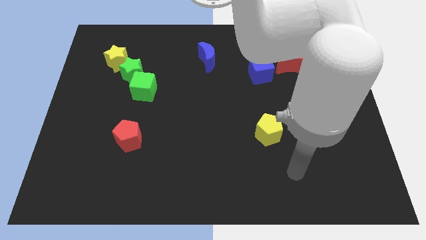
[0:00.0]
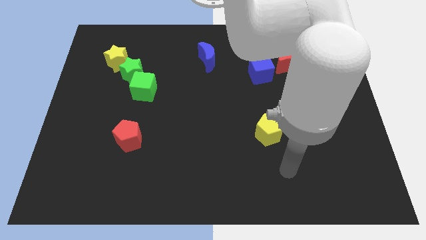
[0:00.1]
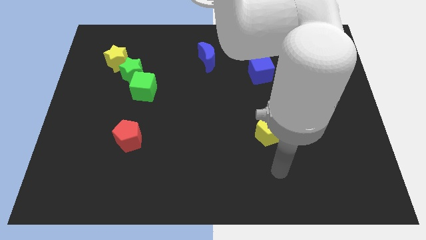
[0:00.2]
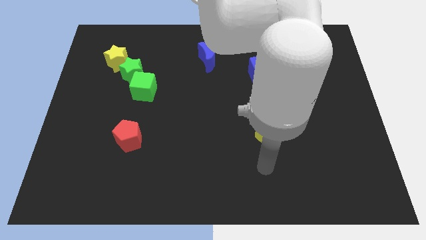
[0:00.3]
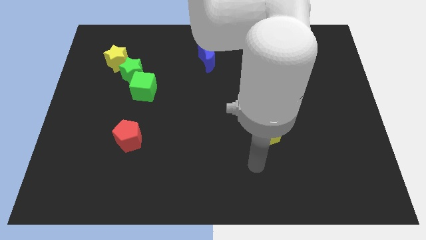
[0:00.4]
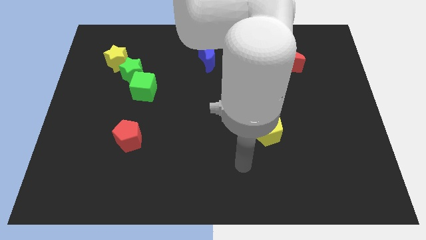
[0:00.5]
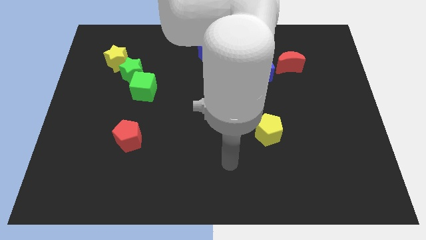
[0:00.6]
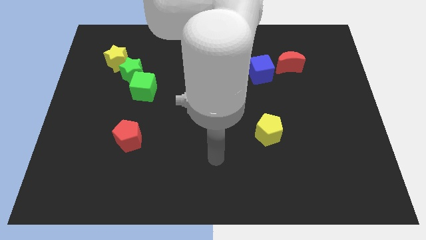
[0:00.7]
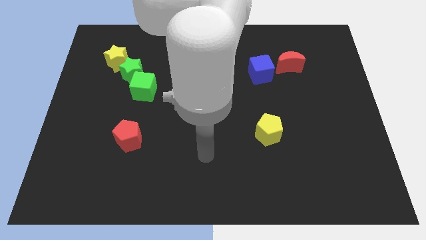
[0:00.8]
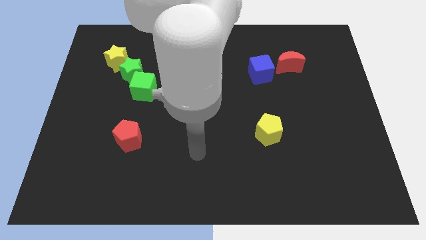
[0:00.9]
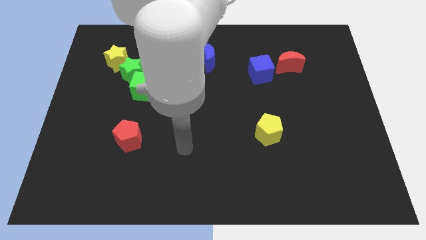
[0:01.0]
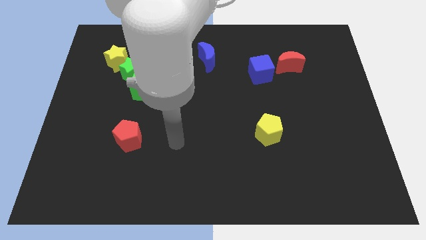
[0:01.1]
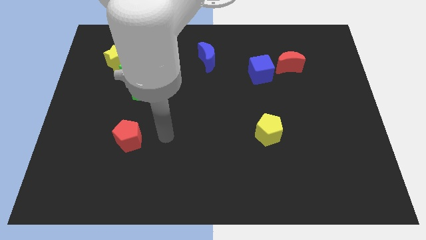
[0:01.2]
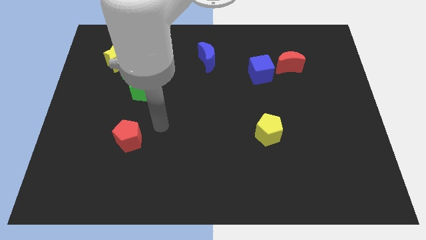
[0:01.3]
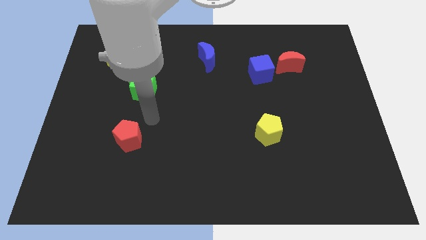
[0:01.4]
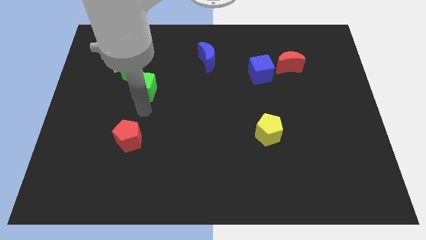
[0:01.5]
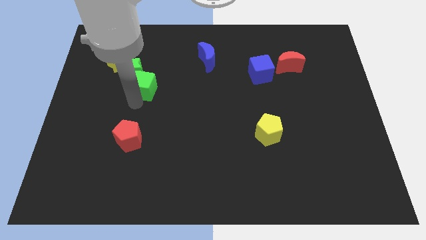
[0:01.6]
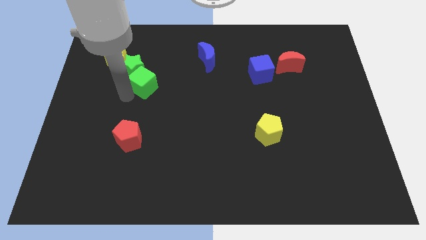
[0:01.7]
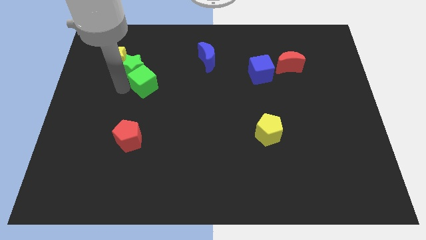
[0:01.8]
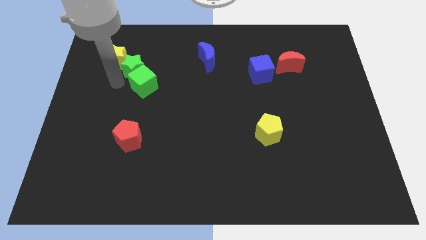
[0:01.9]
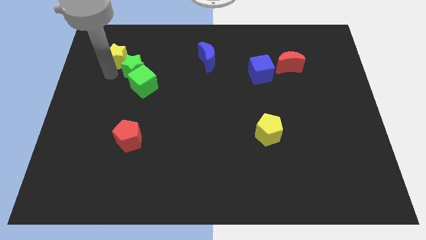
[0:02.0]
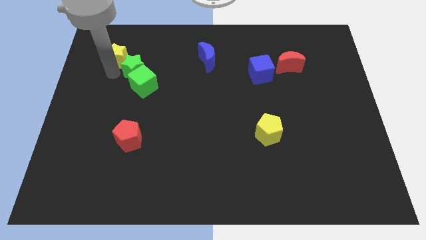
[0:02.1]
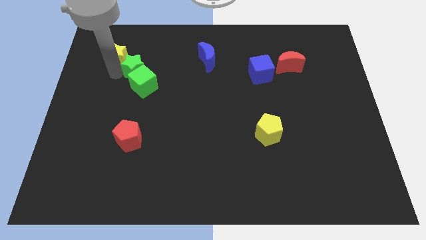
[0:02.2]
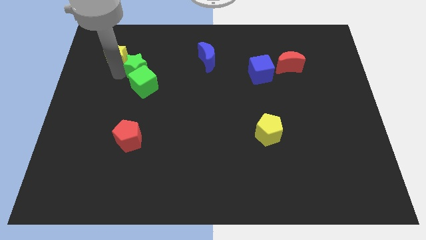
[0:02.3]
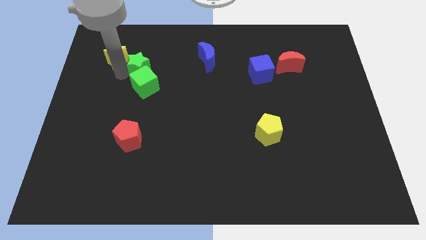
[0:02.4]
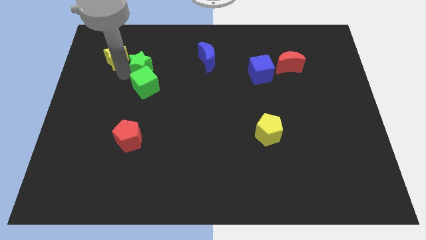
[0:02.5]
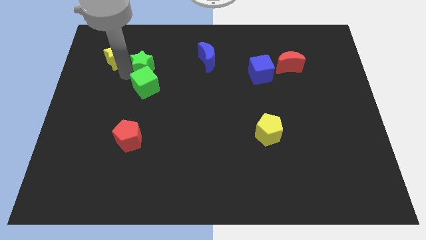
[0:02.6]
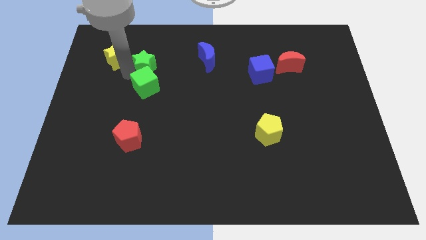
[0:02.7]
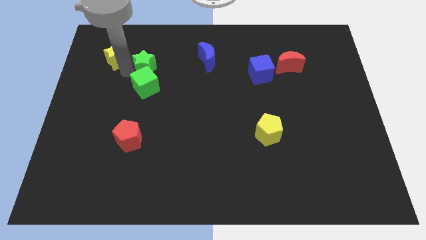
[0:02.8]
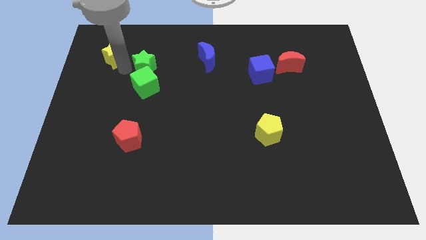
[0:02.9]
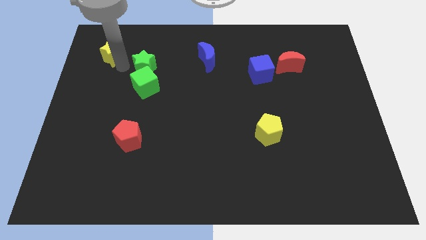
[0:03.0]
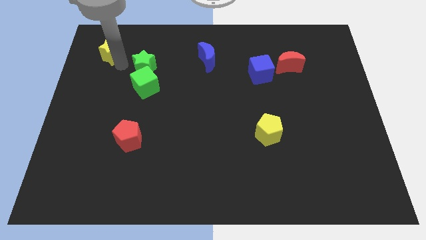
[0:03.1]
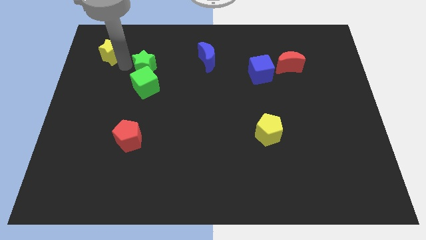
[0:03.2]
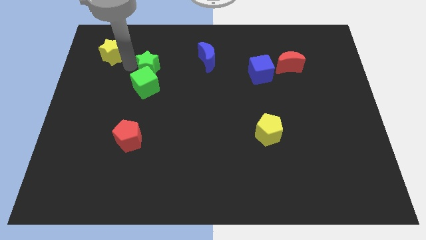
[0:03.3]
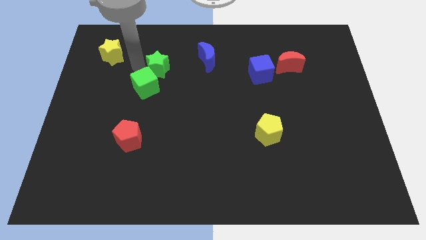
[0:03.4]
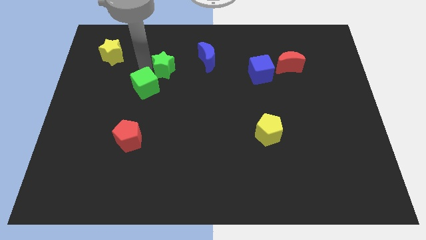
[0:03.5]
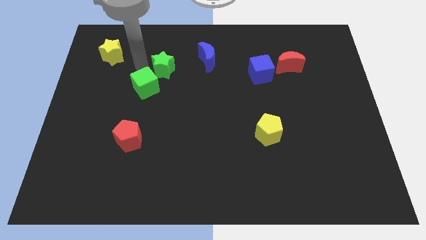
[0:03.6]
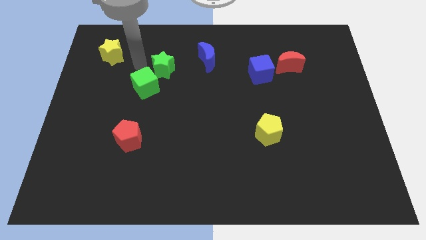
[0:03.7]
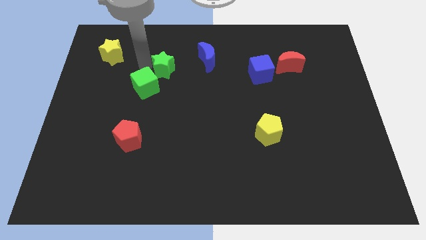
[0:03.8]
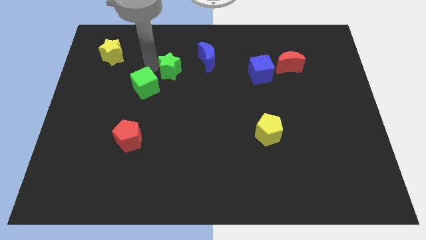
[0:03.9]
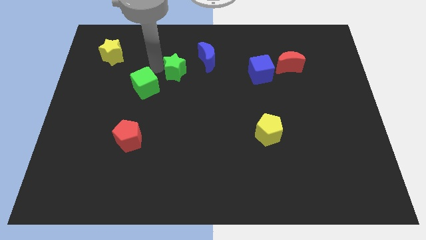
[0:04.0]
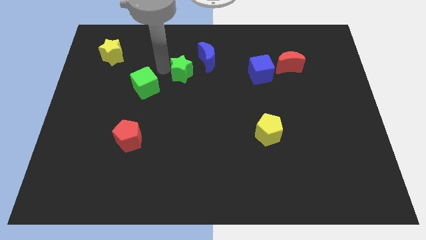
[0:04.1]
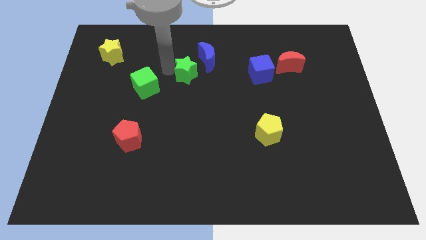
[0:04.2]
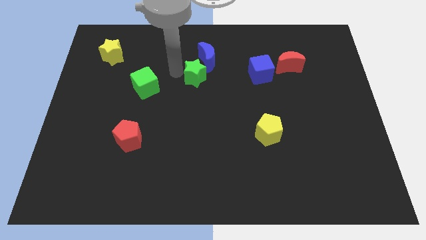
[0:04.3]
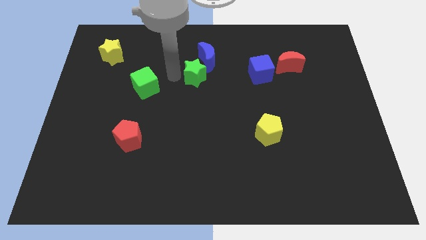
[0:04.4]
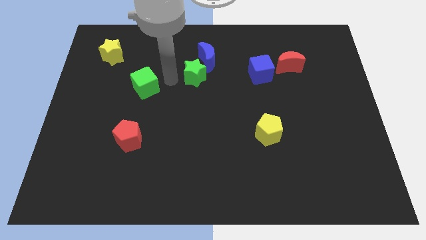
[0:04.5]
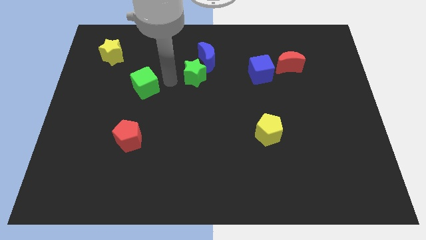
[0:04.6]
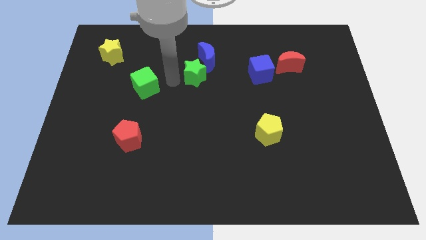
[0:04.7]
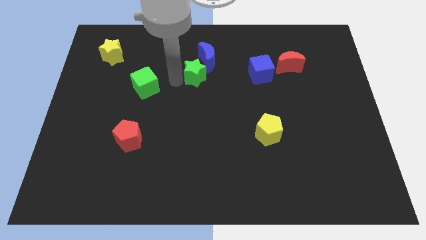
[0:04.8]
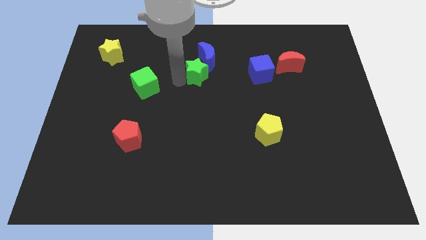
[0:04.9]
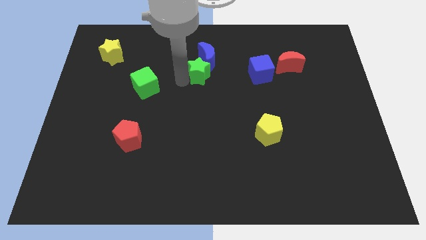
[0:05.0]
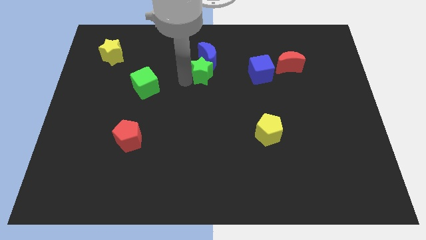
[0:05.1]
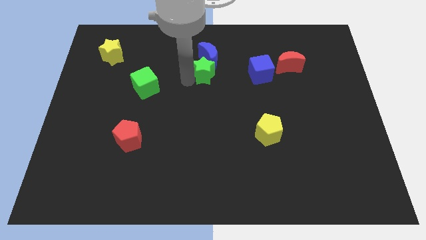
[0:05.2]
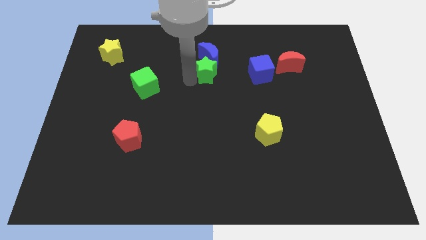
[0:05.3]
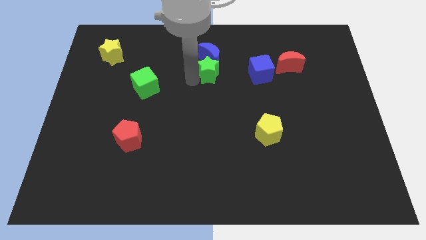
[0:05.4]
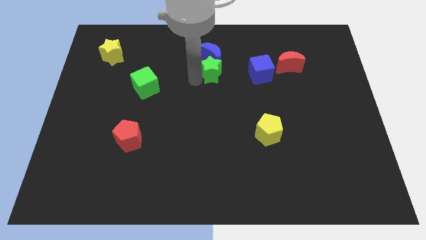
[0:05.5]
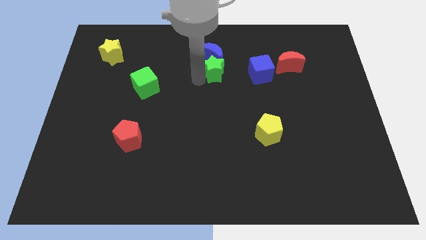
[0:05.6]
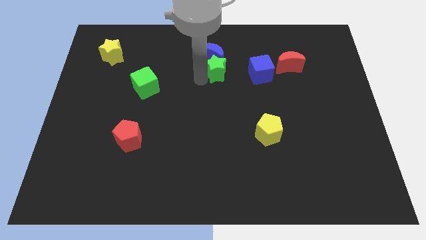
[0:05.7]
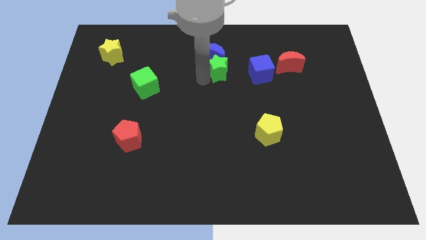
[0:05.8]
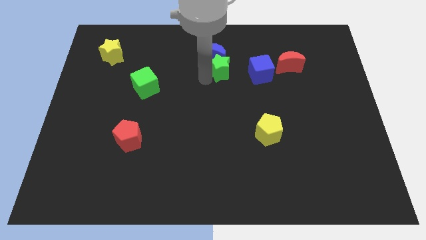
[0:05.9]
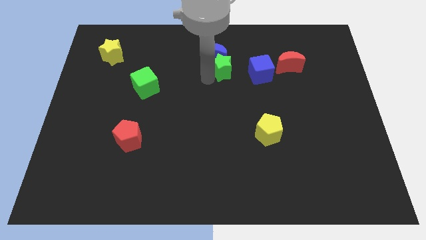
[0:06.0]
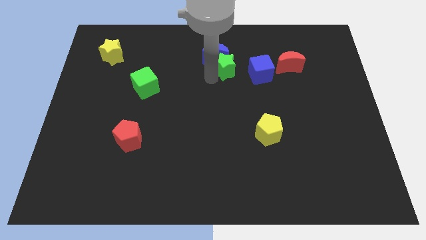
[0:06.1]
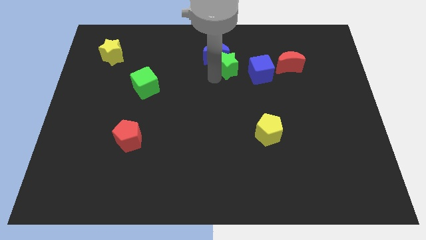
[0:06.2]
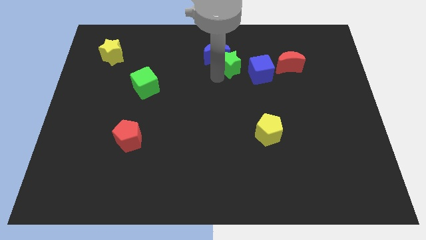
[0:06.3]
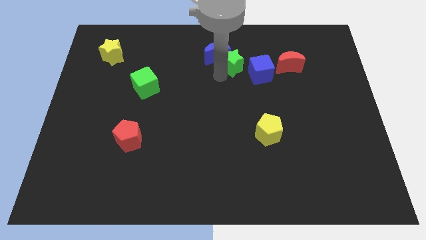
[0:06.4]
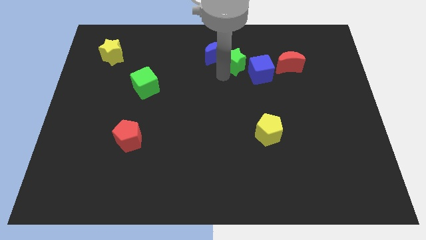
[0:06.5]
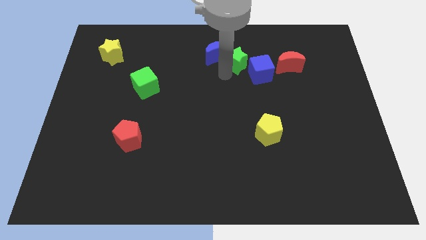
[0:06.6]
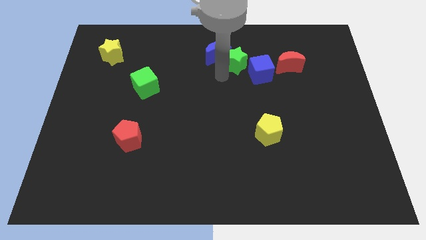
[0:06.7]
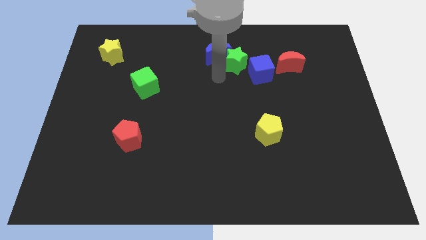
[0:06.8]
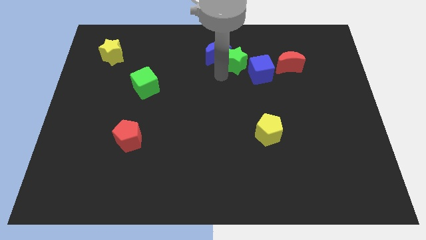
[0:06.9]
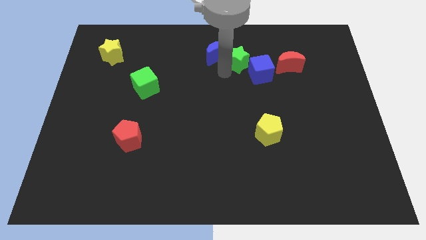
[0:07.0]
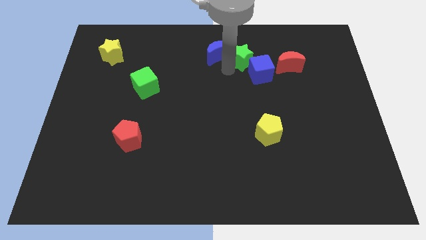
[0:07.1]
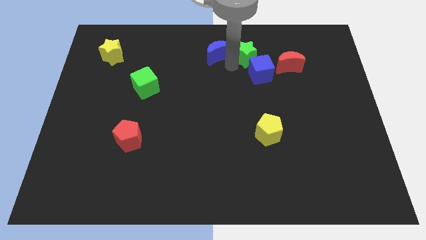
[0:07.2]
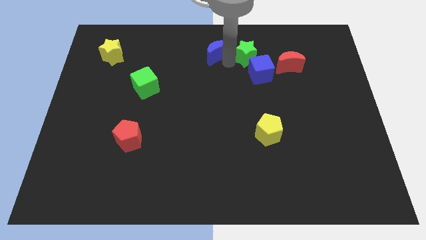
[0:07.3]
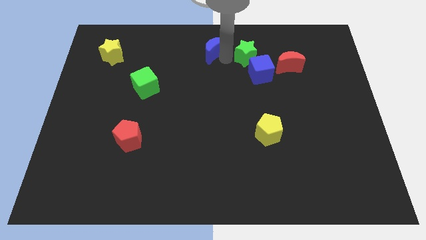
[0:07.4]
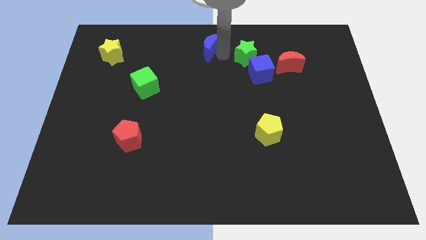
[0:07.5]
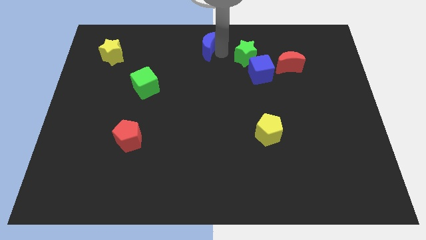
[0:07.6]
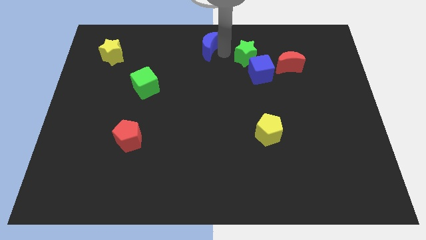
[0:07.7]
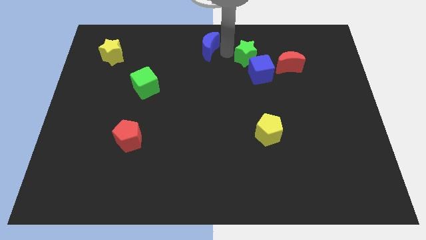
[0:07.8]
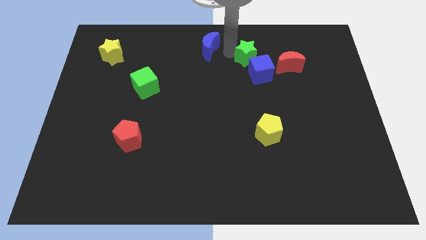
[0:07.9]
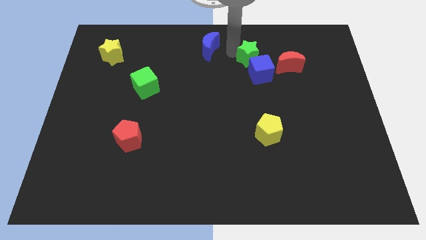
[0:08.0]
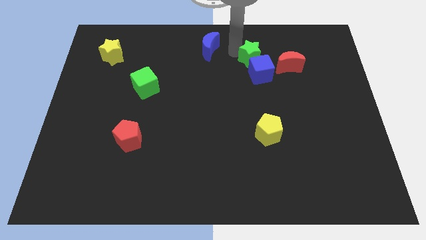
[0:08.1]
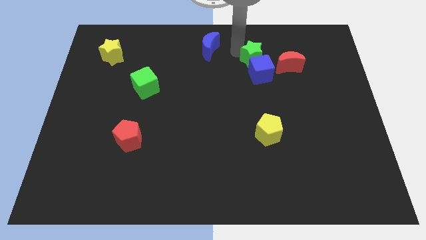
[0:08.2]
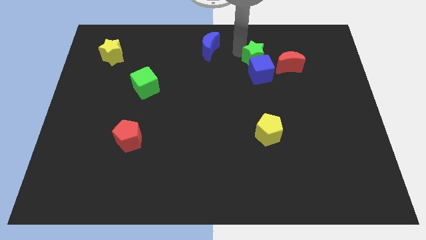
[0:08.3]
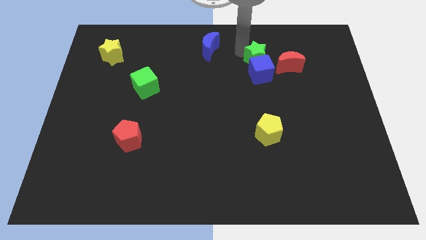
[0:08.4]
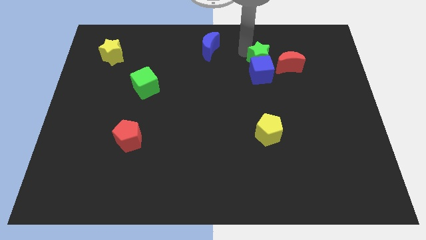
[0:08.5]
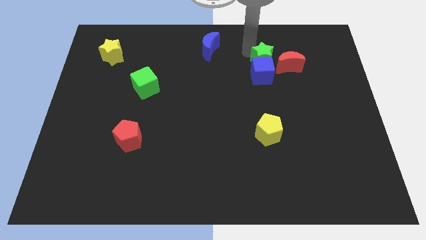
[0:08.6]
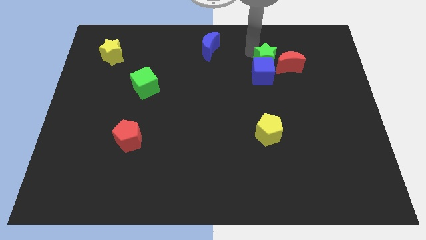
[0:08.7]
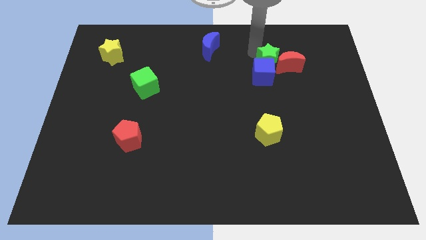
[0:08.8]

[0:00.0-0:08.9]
slide the green star to the red moon
